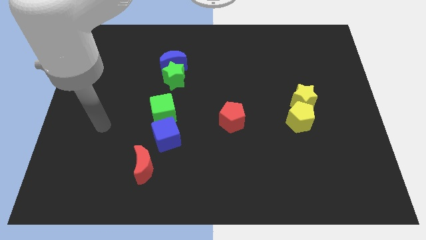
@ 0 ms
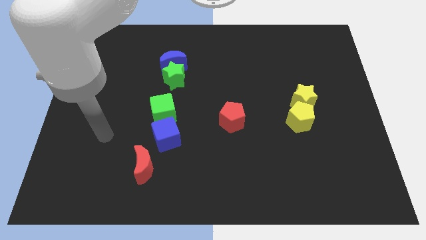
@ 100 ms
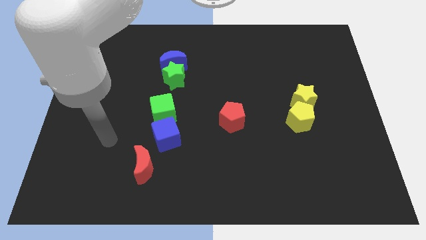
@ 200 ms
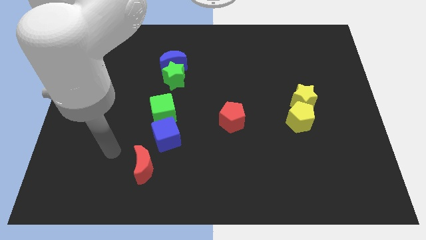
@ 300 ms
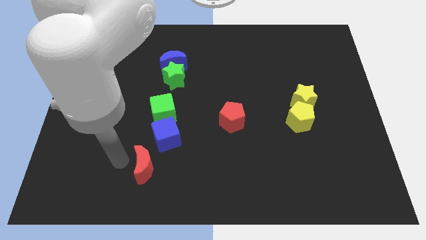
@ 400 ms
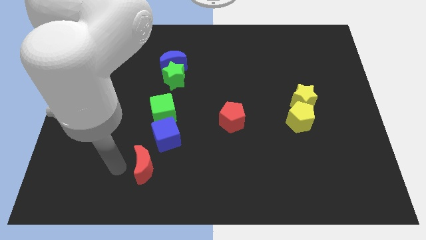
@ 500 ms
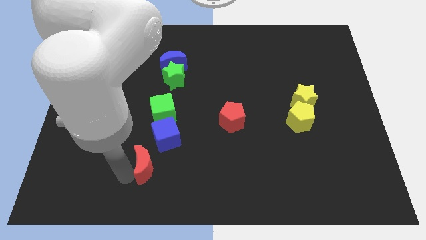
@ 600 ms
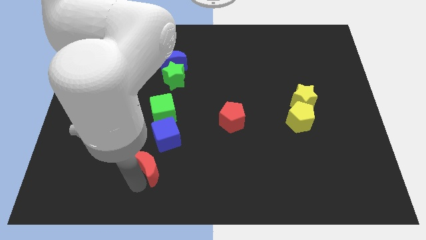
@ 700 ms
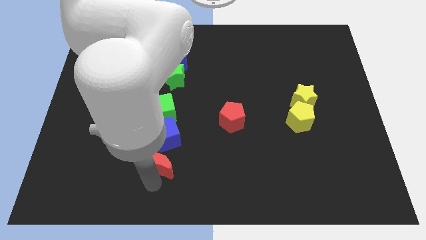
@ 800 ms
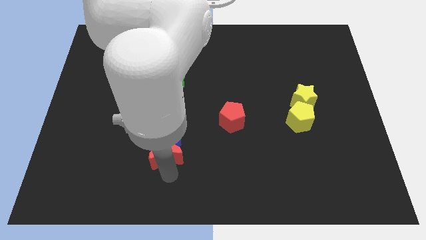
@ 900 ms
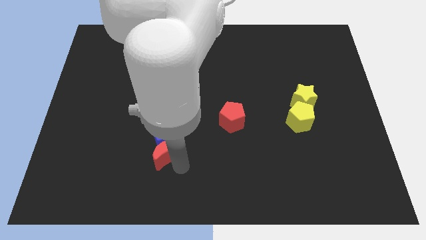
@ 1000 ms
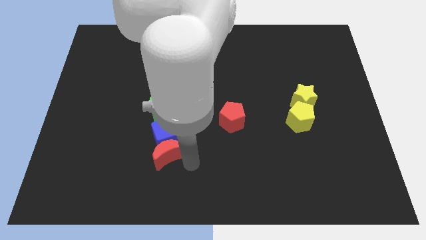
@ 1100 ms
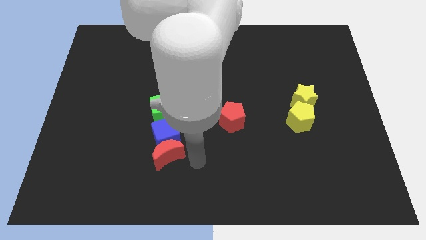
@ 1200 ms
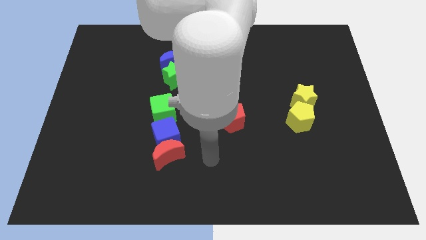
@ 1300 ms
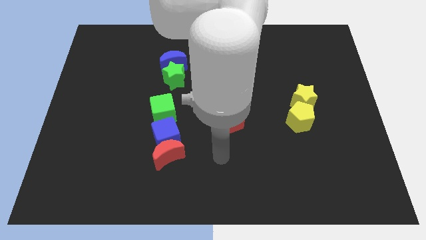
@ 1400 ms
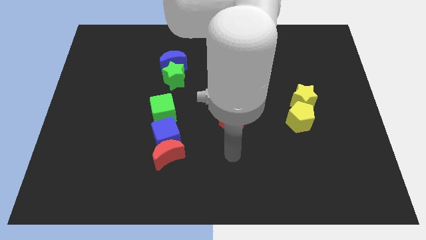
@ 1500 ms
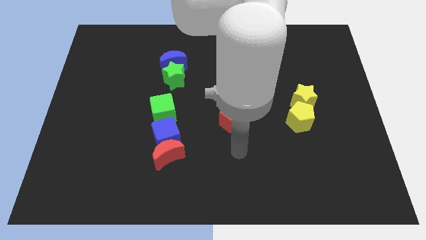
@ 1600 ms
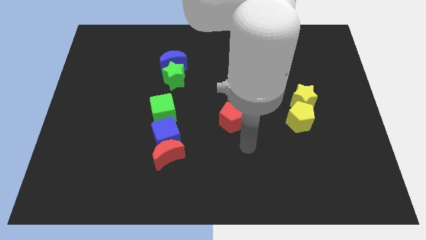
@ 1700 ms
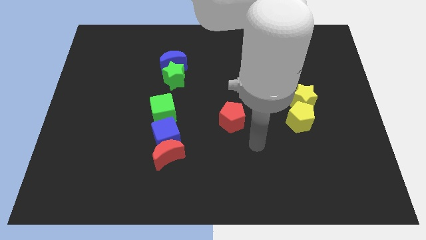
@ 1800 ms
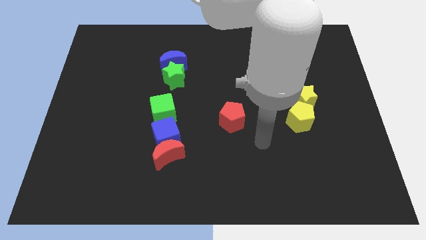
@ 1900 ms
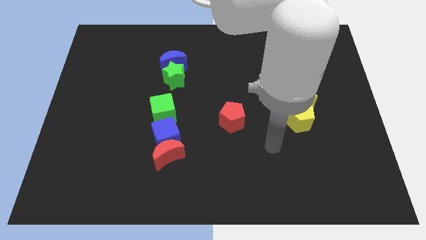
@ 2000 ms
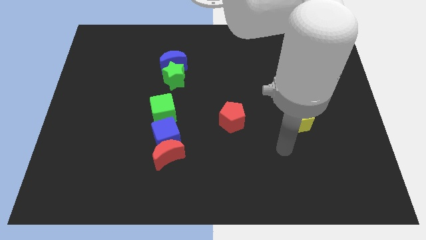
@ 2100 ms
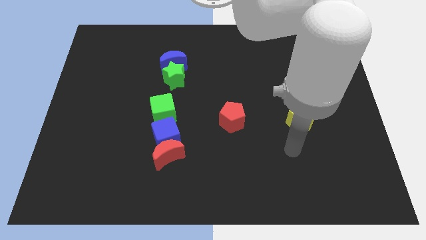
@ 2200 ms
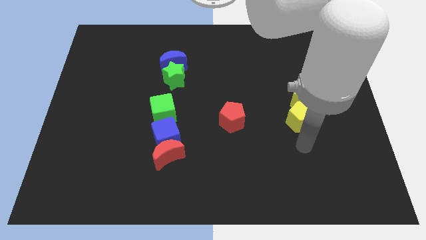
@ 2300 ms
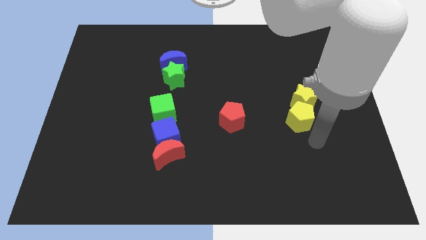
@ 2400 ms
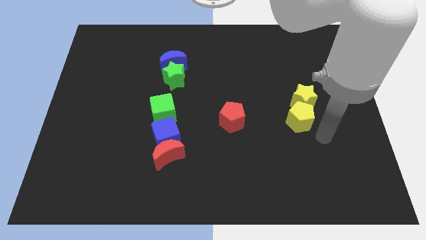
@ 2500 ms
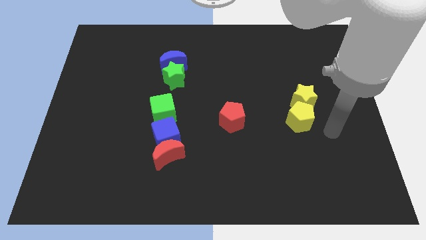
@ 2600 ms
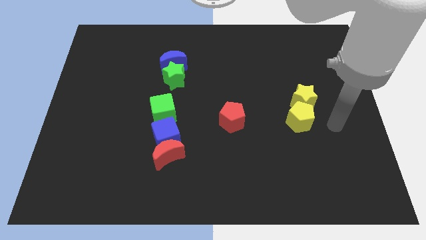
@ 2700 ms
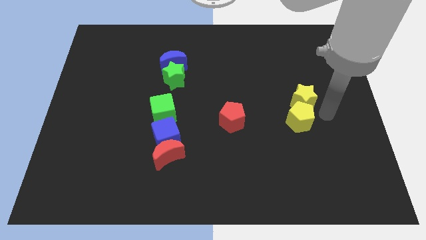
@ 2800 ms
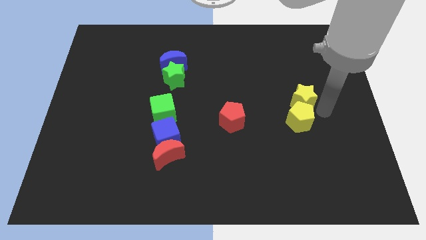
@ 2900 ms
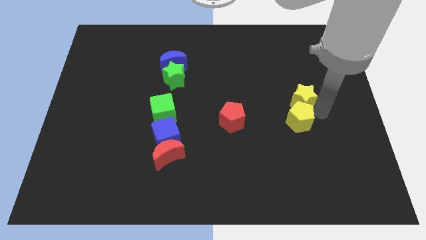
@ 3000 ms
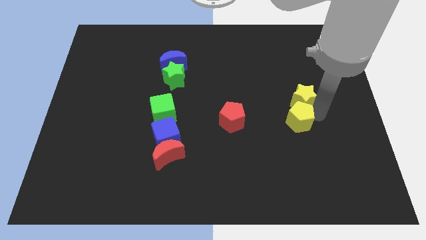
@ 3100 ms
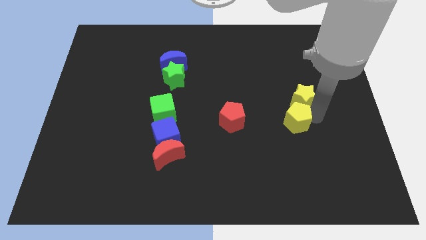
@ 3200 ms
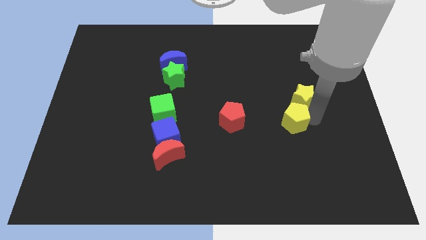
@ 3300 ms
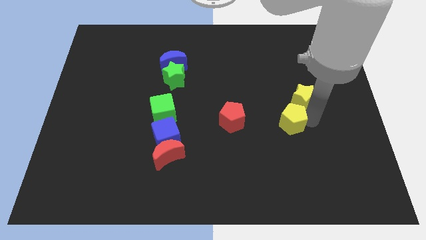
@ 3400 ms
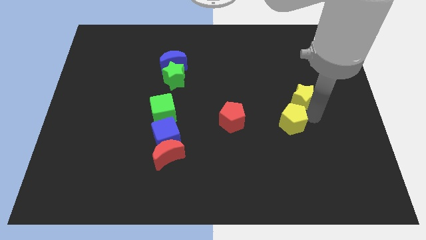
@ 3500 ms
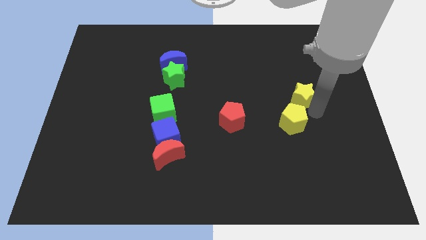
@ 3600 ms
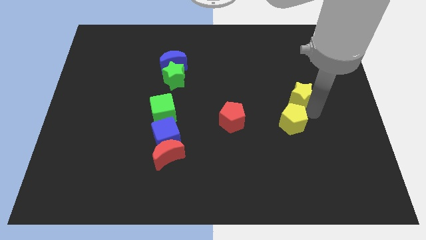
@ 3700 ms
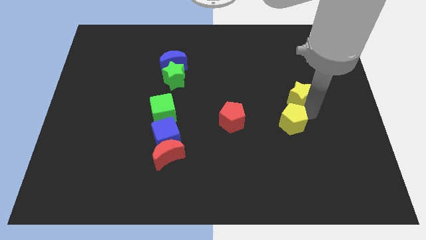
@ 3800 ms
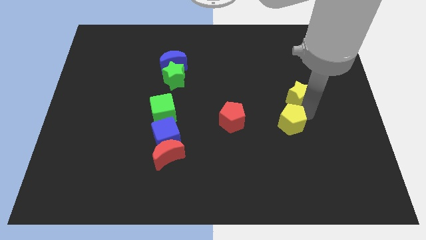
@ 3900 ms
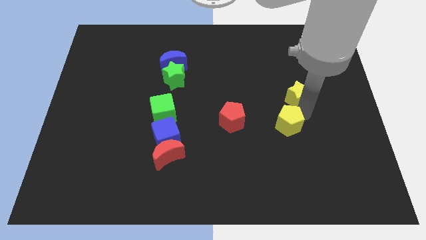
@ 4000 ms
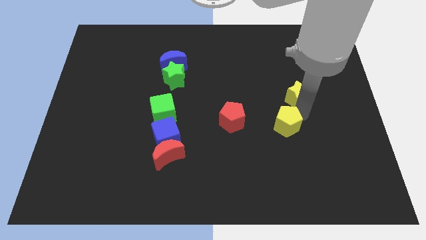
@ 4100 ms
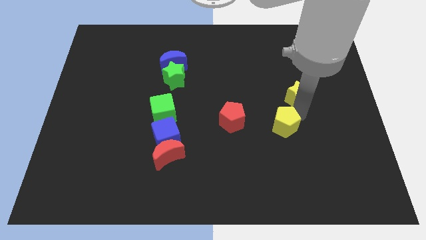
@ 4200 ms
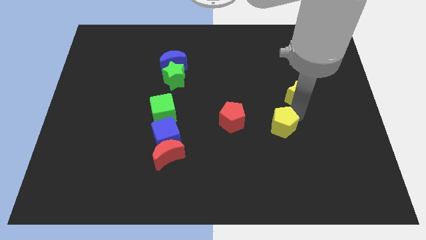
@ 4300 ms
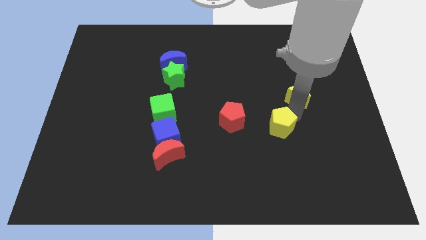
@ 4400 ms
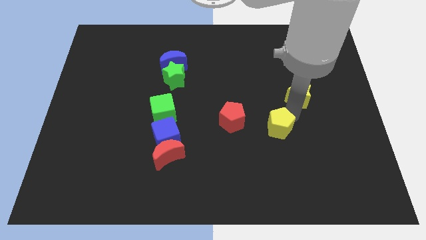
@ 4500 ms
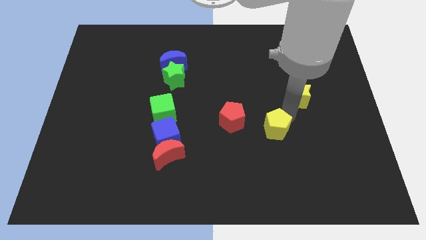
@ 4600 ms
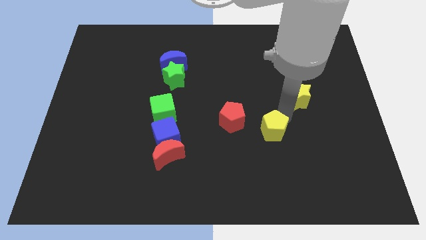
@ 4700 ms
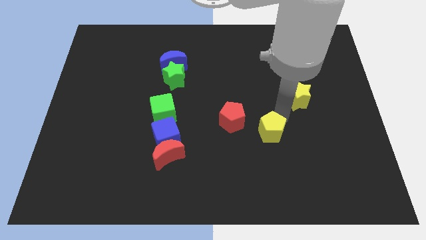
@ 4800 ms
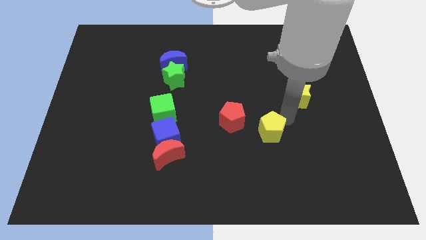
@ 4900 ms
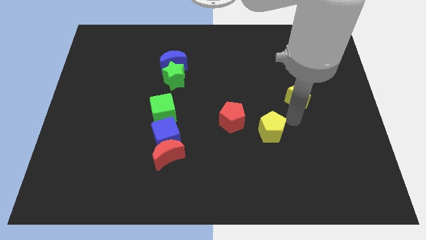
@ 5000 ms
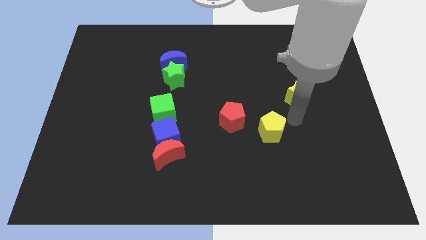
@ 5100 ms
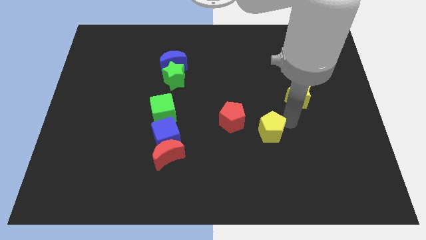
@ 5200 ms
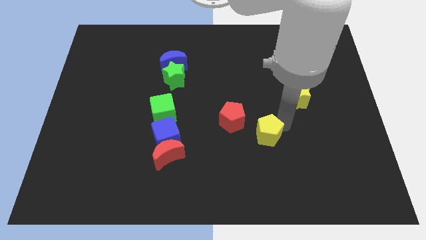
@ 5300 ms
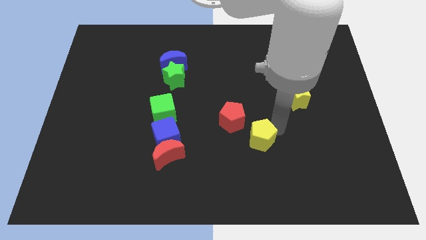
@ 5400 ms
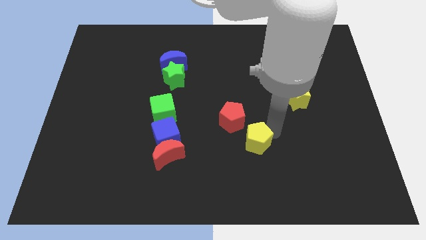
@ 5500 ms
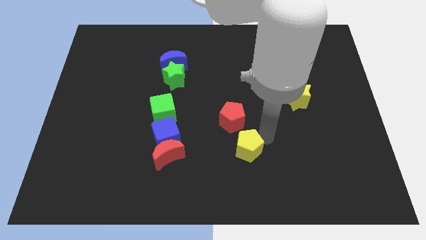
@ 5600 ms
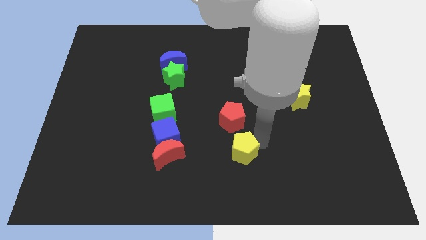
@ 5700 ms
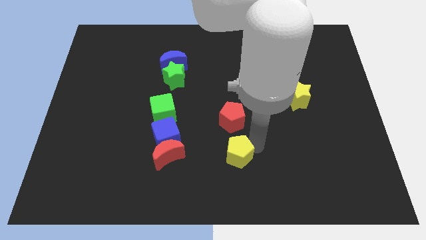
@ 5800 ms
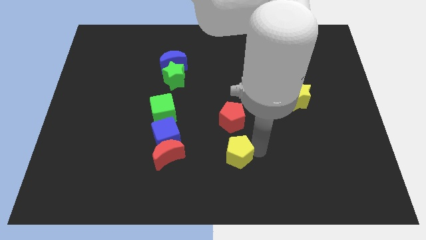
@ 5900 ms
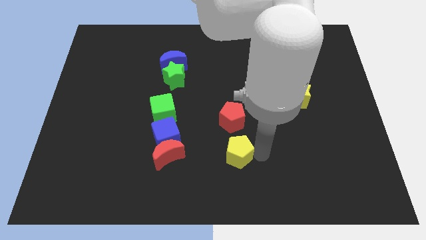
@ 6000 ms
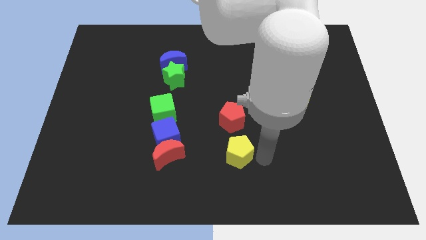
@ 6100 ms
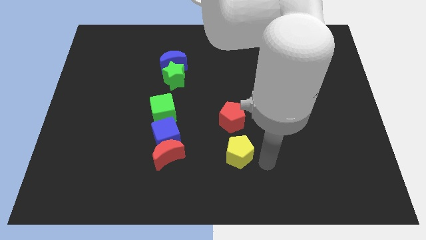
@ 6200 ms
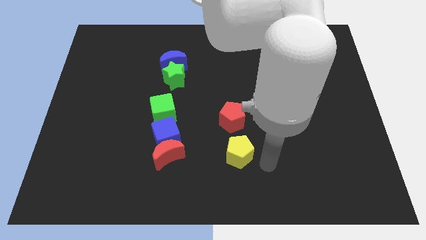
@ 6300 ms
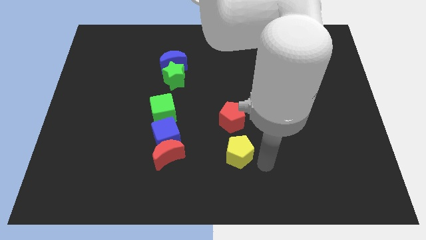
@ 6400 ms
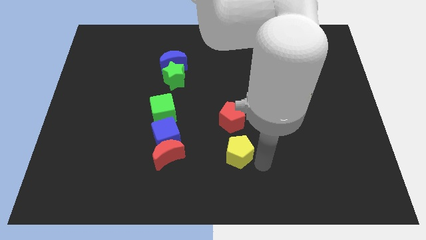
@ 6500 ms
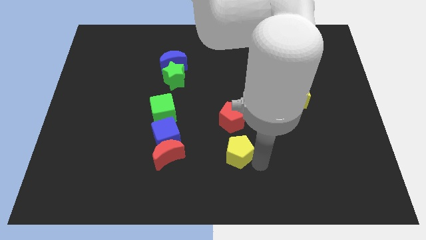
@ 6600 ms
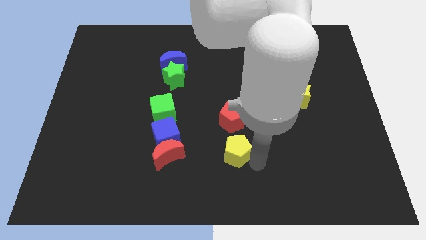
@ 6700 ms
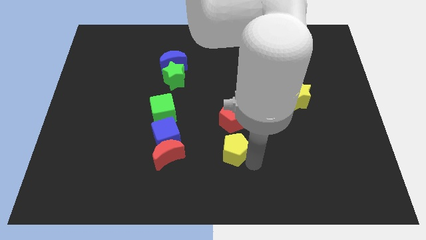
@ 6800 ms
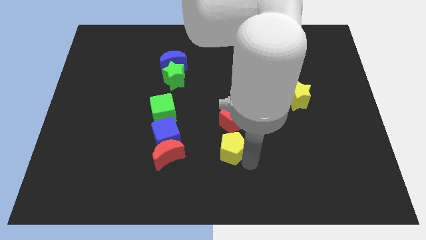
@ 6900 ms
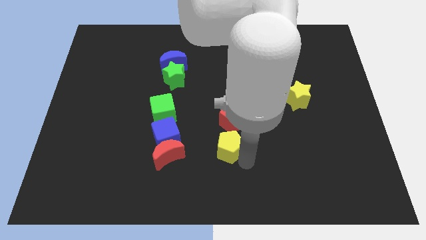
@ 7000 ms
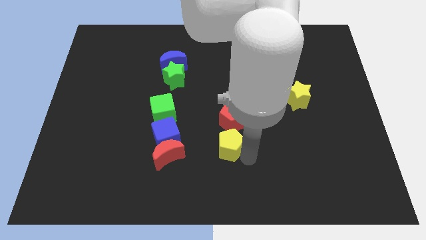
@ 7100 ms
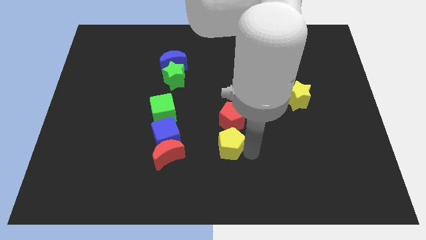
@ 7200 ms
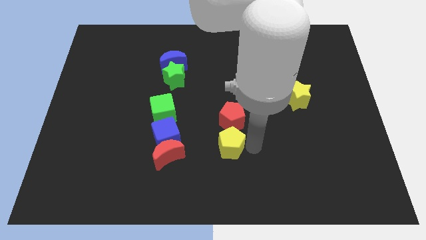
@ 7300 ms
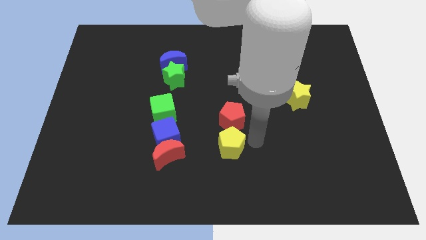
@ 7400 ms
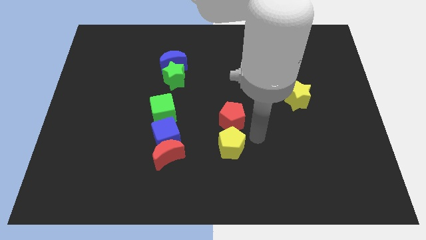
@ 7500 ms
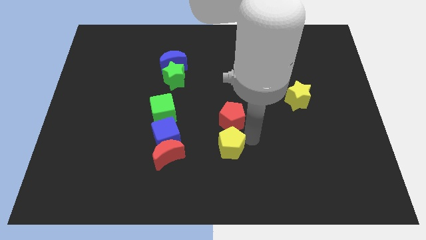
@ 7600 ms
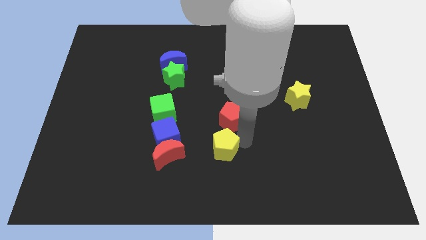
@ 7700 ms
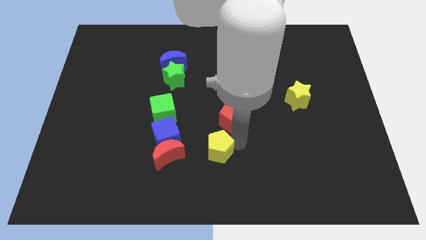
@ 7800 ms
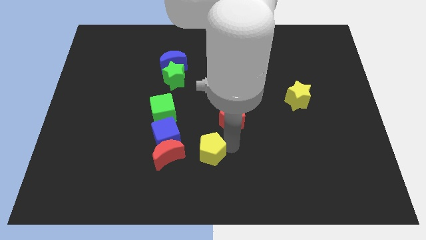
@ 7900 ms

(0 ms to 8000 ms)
move the yellow pentagon diagonally down and to the right of the blue cube

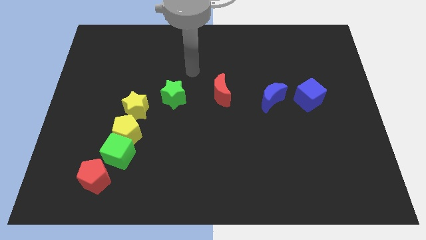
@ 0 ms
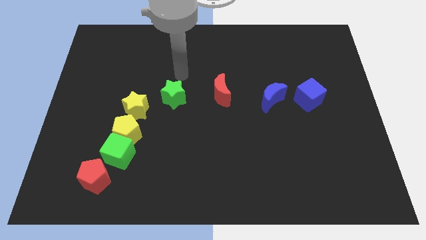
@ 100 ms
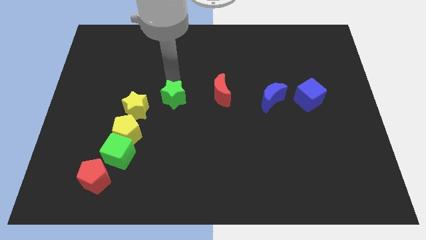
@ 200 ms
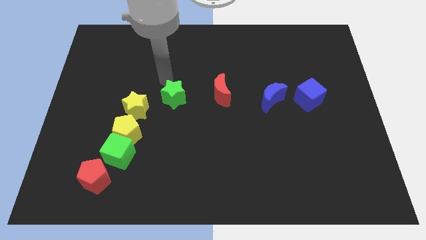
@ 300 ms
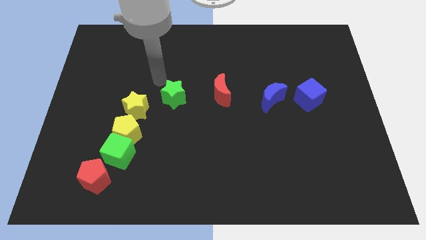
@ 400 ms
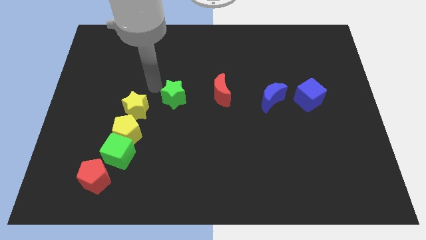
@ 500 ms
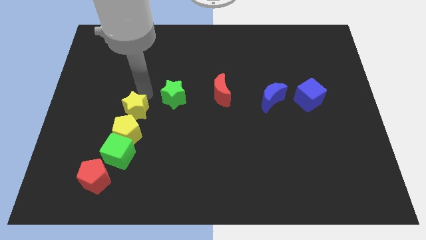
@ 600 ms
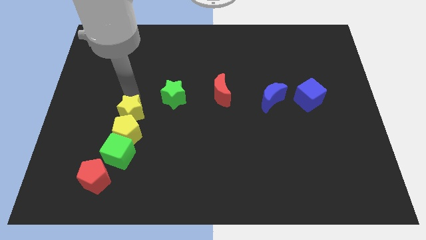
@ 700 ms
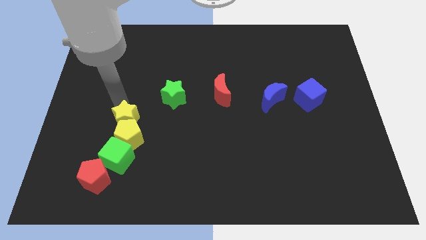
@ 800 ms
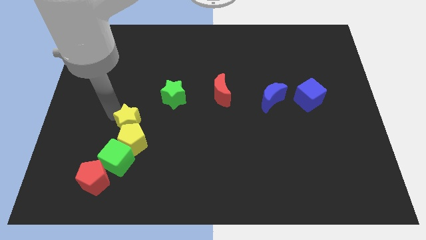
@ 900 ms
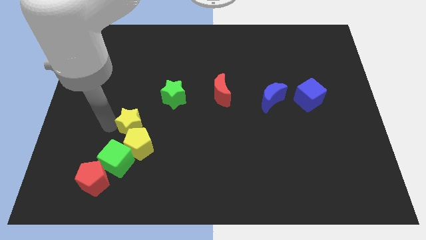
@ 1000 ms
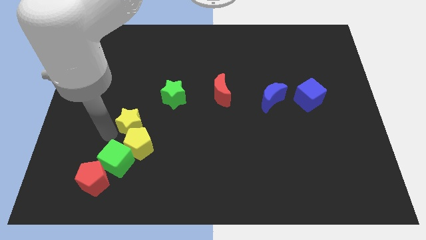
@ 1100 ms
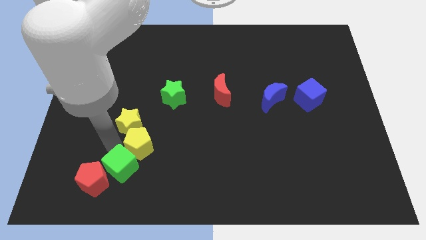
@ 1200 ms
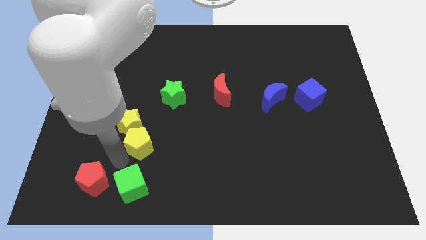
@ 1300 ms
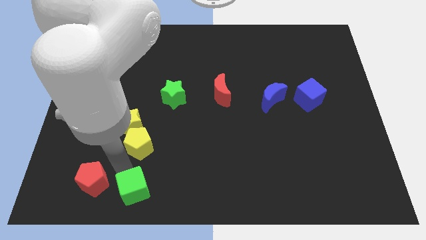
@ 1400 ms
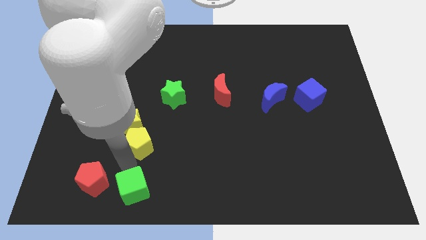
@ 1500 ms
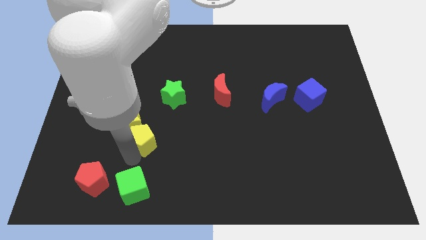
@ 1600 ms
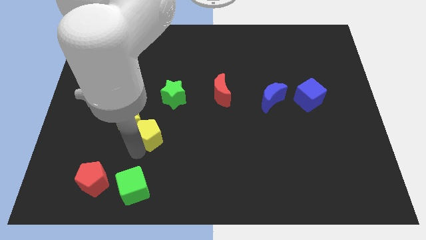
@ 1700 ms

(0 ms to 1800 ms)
move the yellow pentagon to the right side of the yellow star
